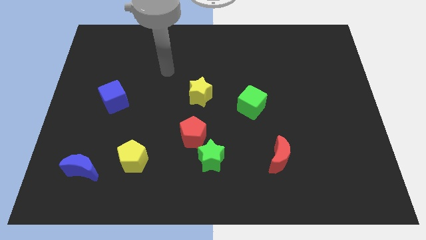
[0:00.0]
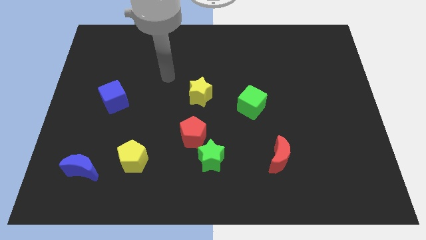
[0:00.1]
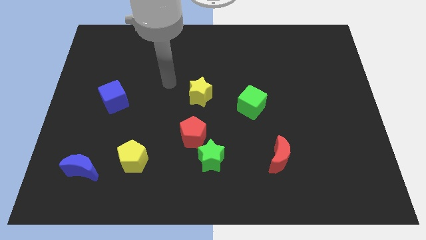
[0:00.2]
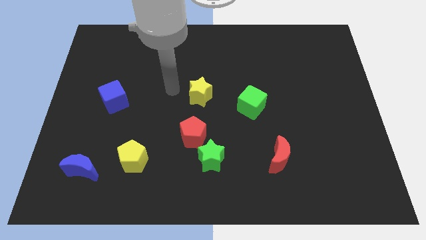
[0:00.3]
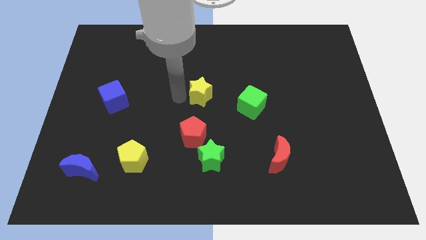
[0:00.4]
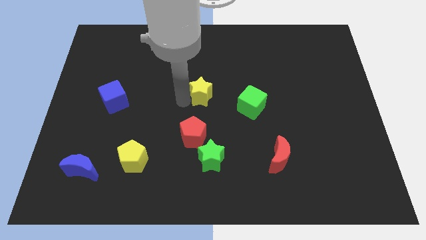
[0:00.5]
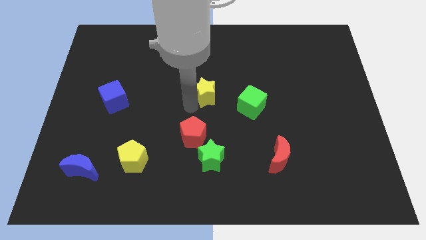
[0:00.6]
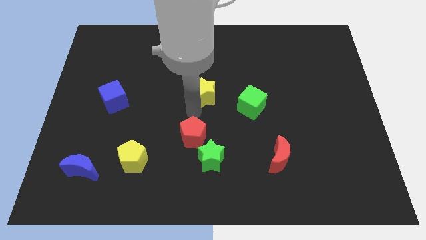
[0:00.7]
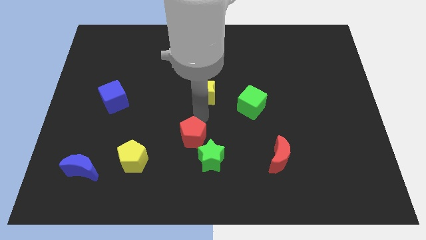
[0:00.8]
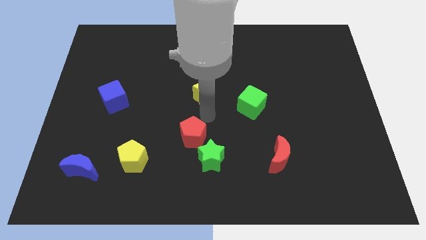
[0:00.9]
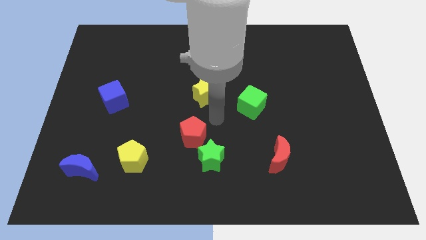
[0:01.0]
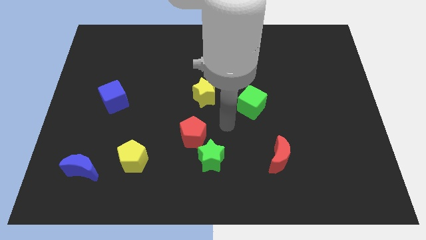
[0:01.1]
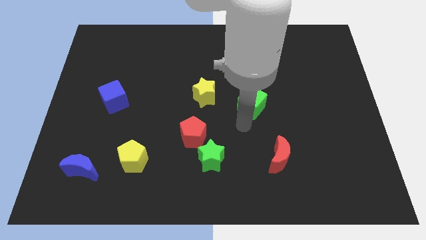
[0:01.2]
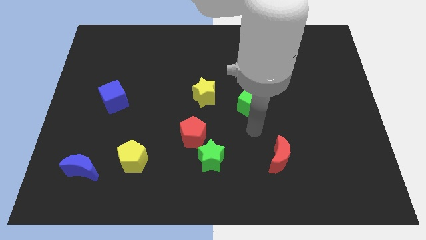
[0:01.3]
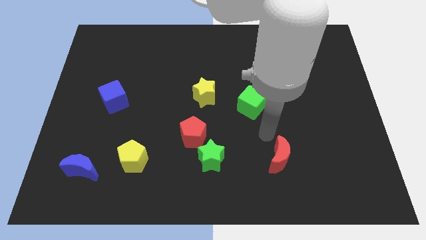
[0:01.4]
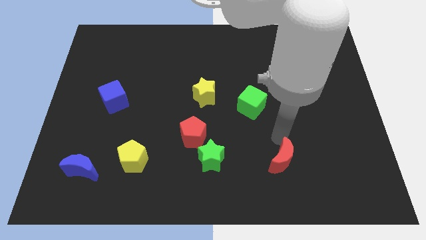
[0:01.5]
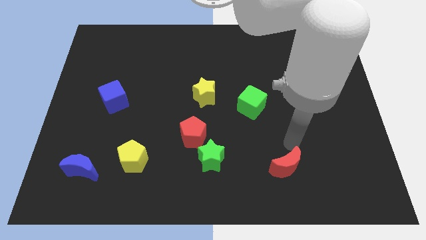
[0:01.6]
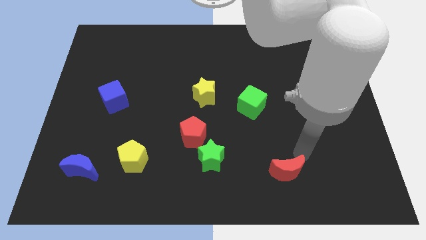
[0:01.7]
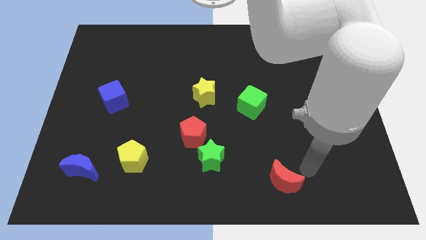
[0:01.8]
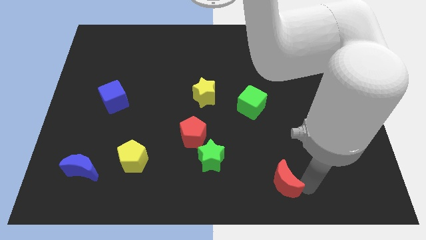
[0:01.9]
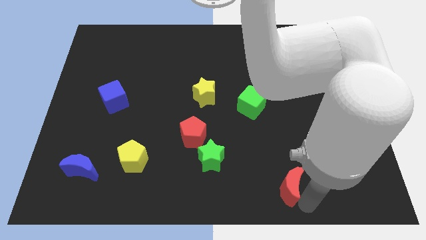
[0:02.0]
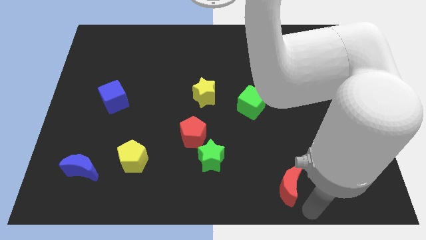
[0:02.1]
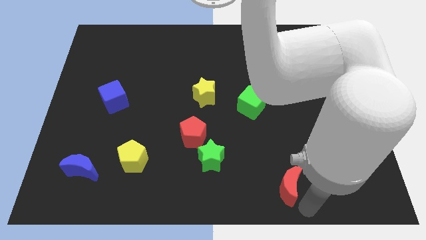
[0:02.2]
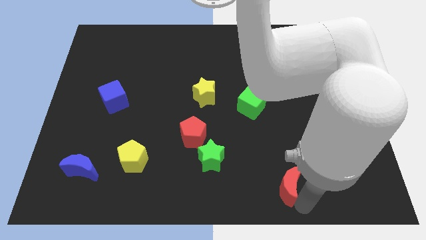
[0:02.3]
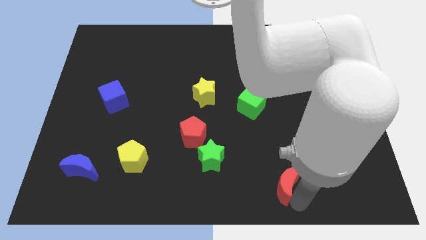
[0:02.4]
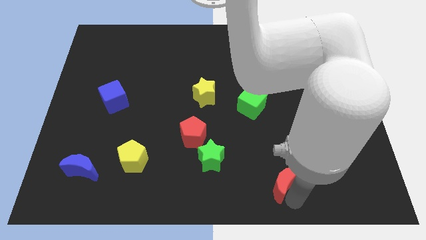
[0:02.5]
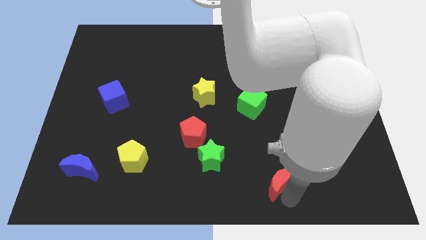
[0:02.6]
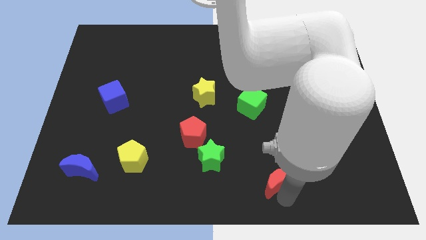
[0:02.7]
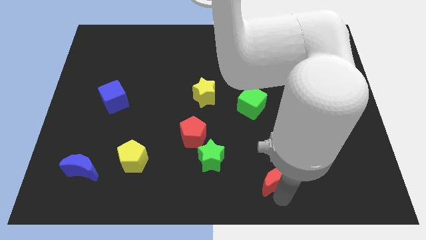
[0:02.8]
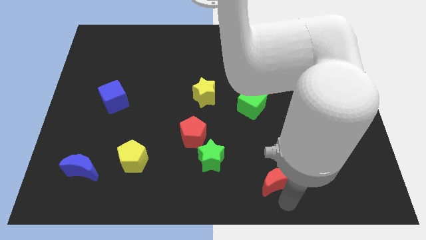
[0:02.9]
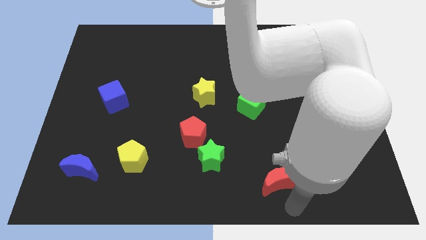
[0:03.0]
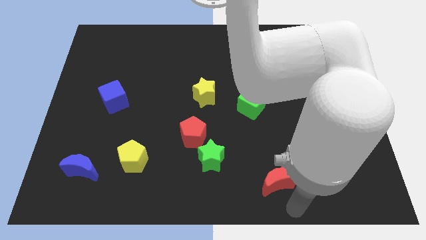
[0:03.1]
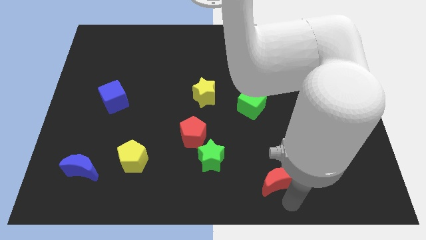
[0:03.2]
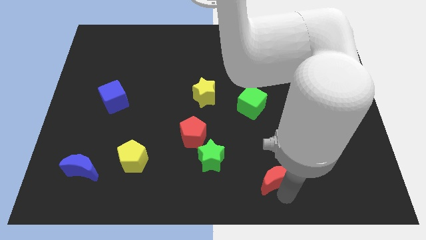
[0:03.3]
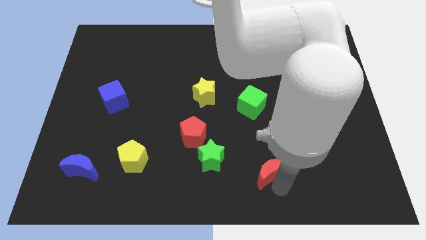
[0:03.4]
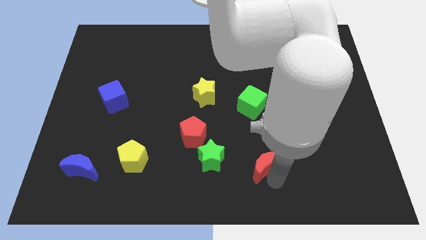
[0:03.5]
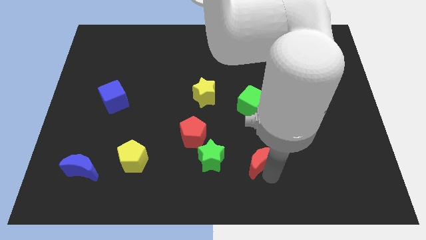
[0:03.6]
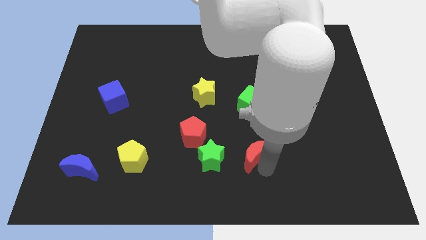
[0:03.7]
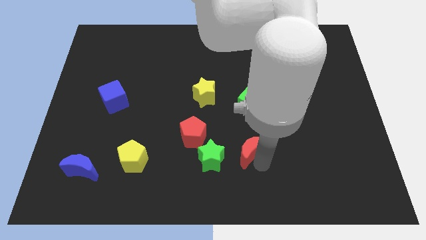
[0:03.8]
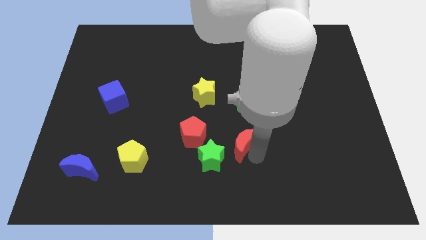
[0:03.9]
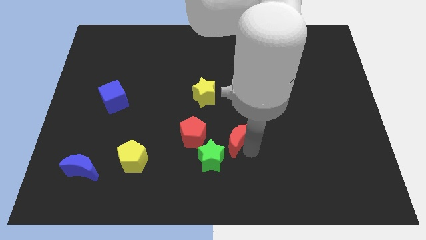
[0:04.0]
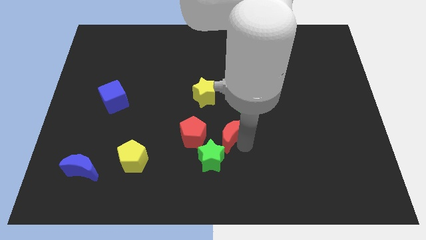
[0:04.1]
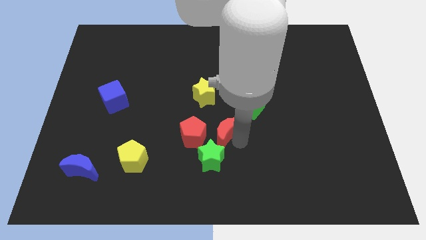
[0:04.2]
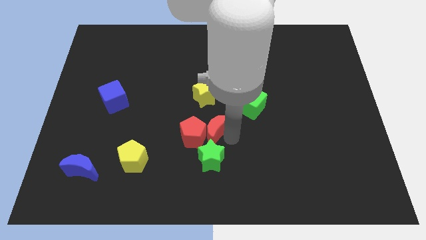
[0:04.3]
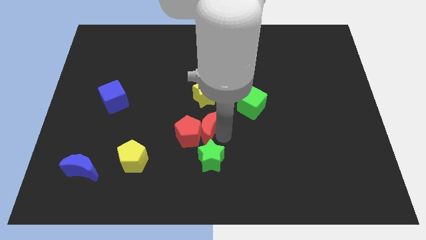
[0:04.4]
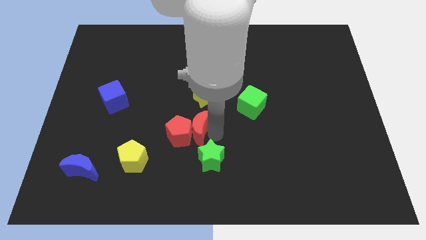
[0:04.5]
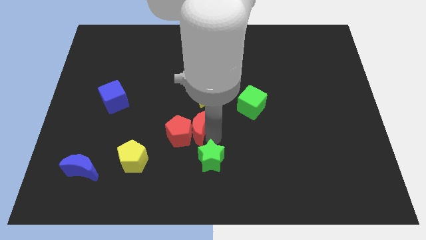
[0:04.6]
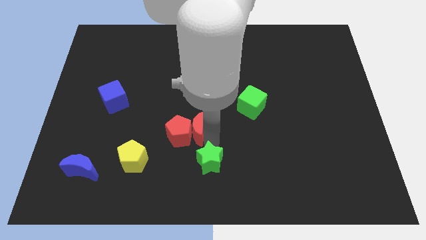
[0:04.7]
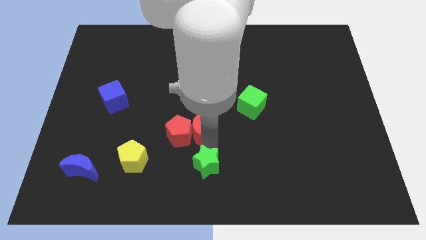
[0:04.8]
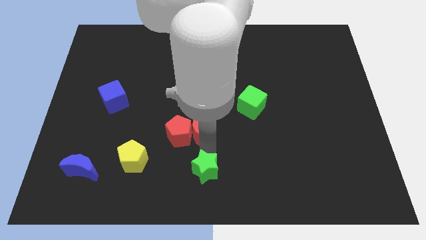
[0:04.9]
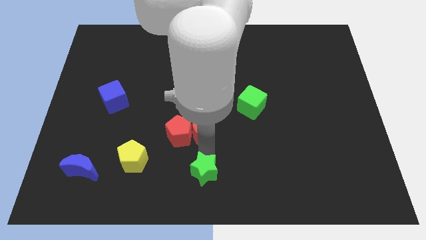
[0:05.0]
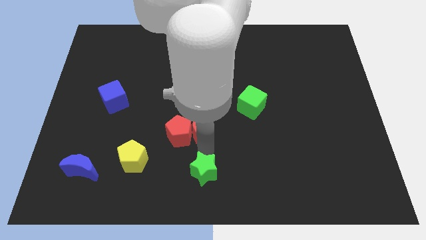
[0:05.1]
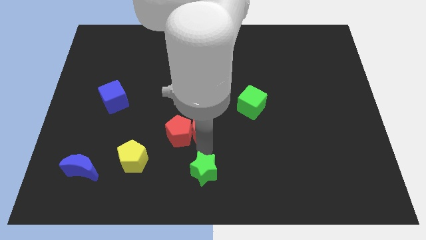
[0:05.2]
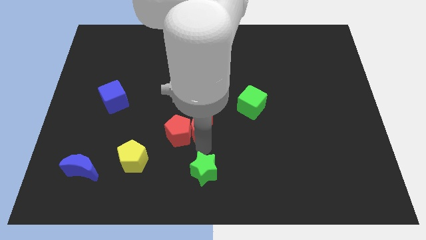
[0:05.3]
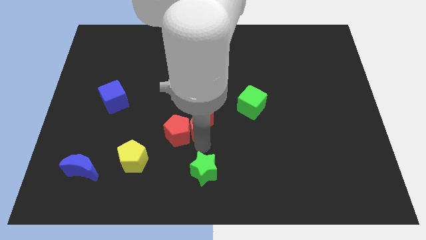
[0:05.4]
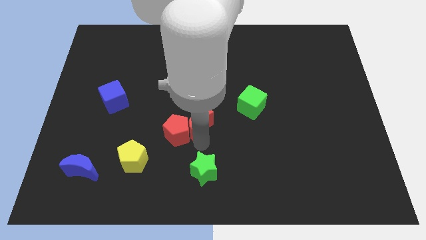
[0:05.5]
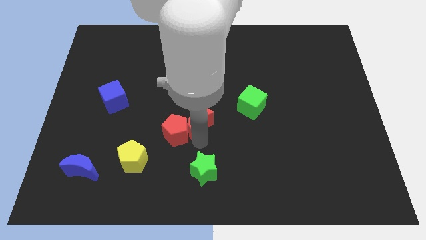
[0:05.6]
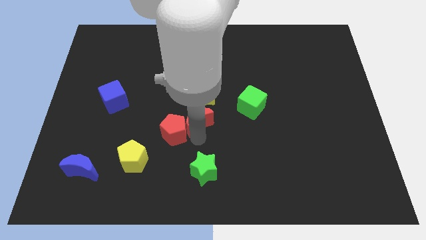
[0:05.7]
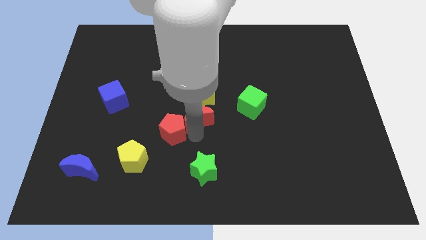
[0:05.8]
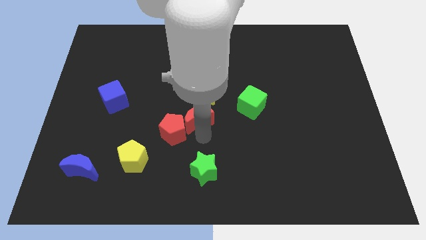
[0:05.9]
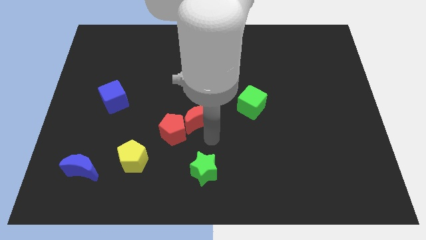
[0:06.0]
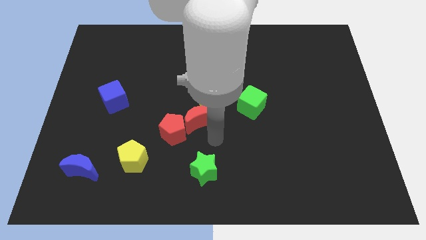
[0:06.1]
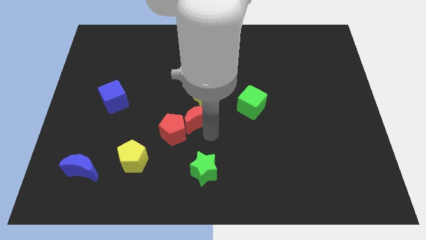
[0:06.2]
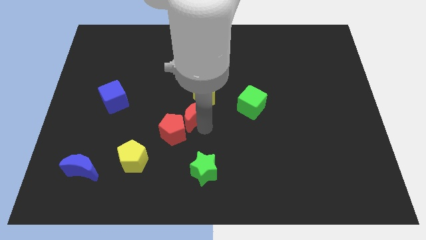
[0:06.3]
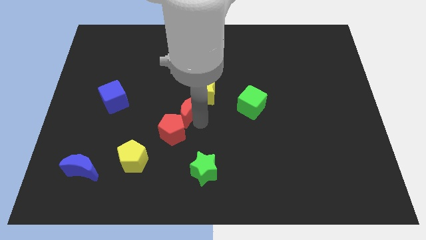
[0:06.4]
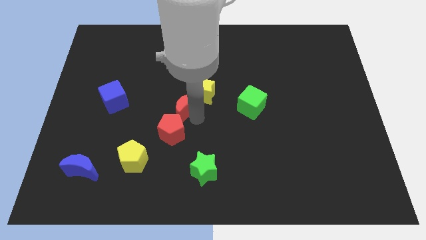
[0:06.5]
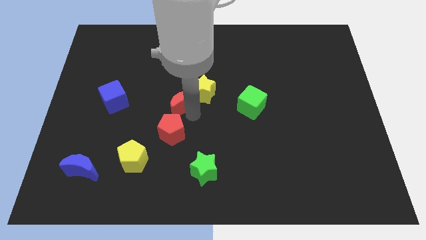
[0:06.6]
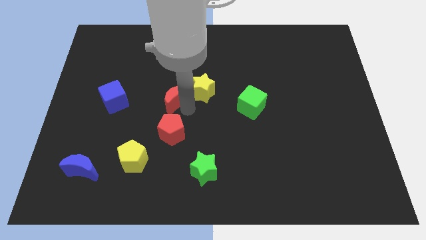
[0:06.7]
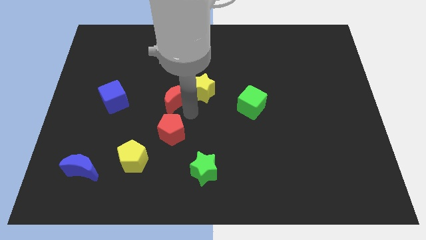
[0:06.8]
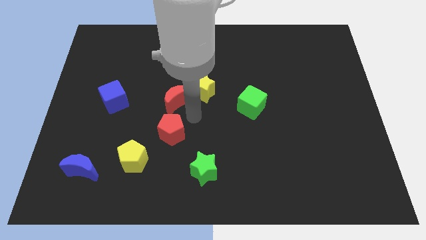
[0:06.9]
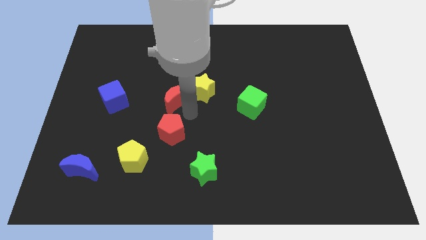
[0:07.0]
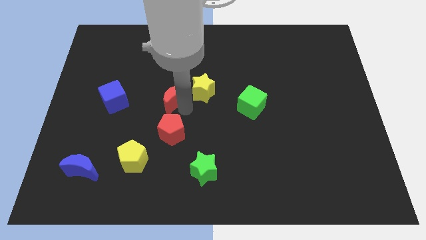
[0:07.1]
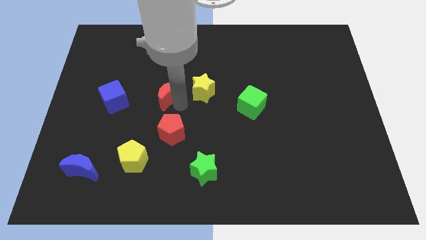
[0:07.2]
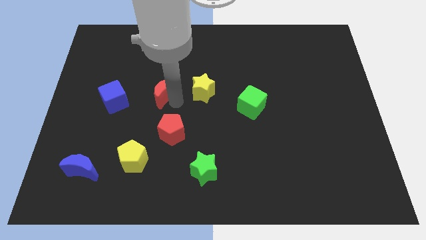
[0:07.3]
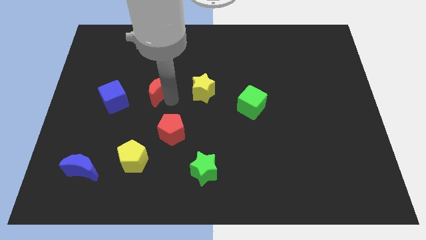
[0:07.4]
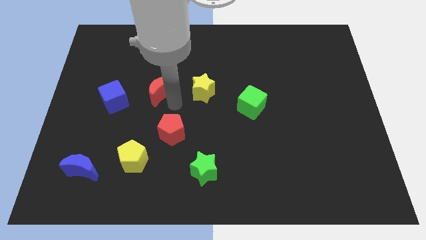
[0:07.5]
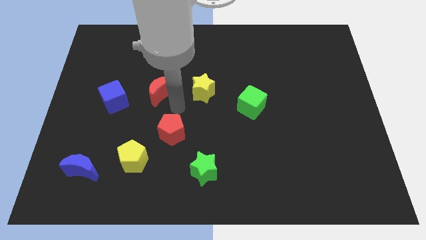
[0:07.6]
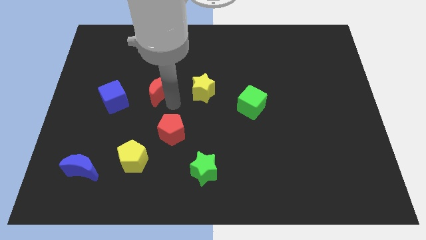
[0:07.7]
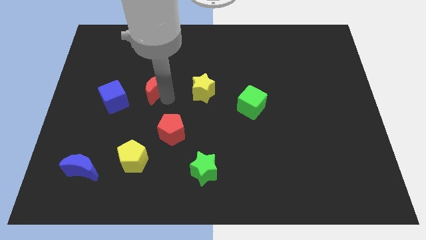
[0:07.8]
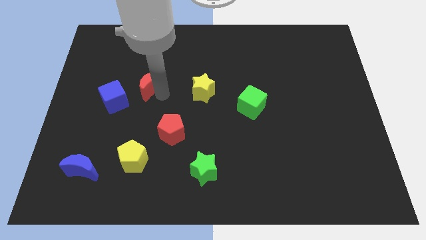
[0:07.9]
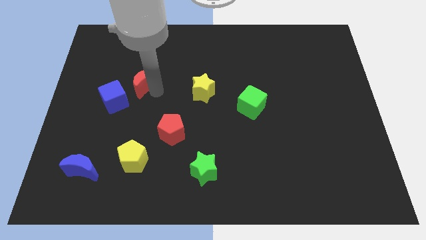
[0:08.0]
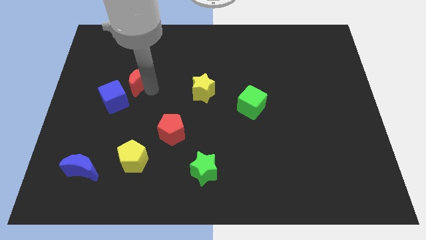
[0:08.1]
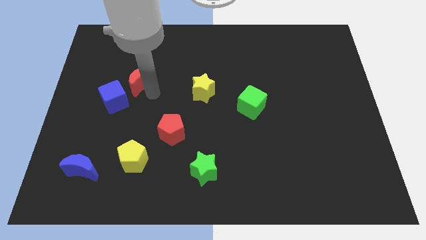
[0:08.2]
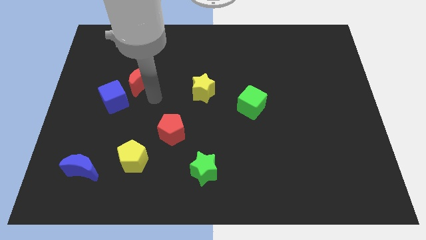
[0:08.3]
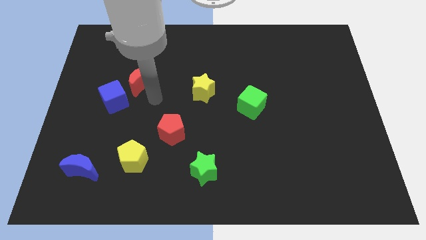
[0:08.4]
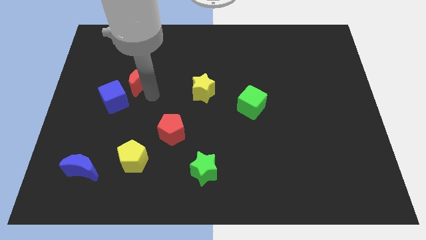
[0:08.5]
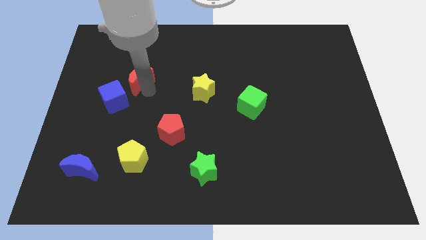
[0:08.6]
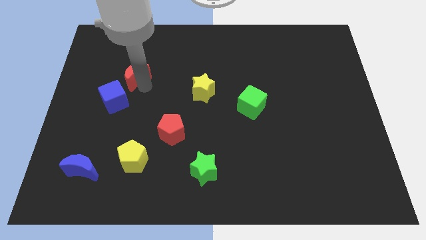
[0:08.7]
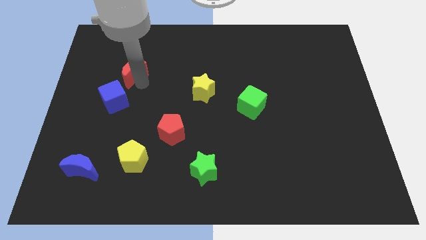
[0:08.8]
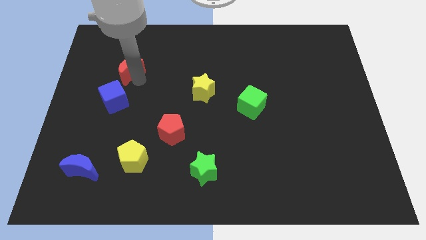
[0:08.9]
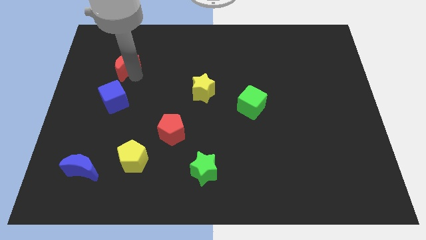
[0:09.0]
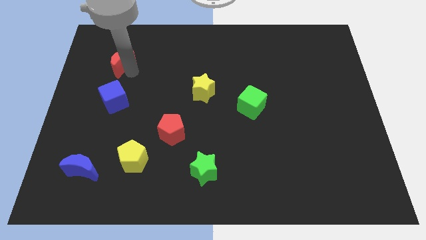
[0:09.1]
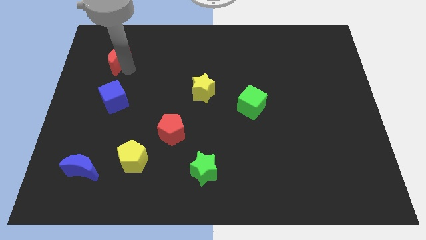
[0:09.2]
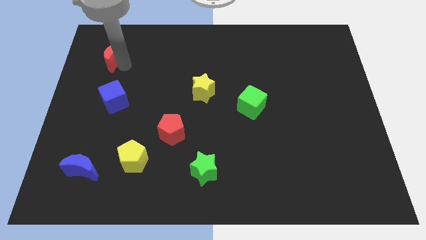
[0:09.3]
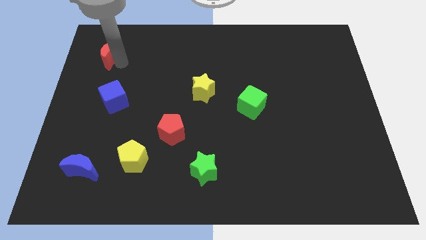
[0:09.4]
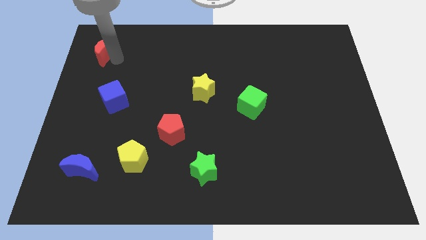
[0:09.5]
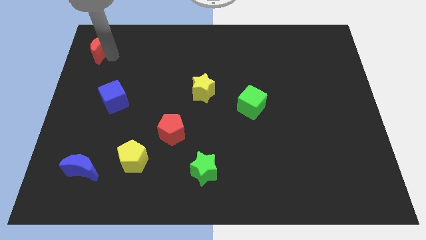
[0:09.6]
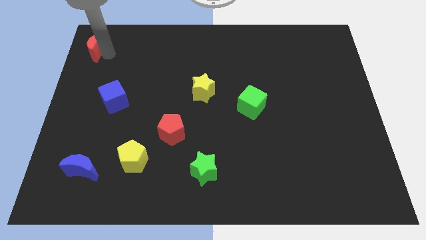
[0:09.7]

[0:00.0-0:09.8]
move the red moon to the top left of the board
